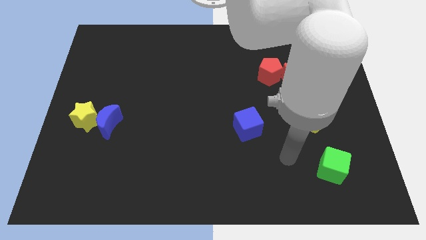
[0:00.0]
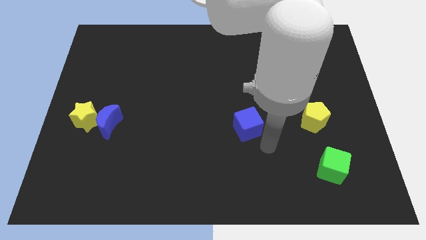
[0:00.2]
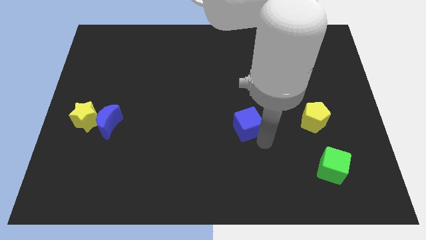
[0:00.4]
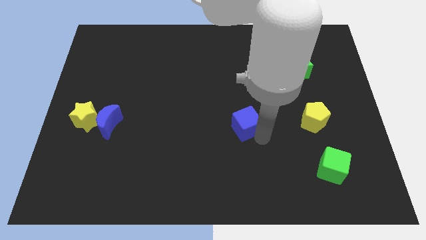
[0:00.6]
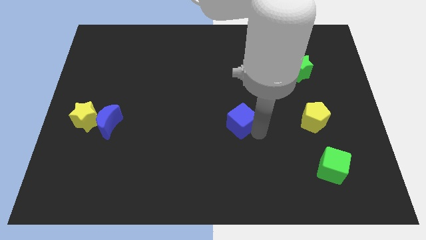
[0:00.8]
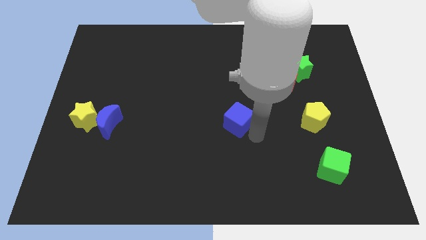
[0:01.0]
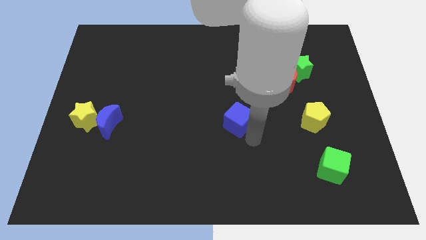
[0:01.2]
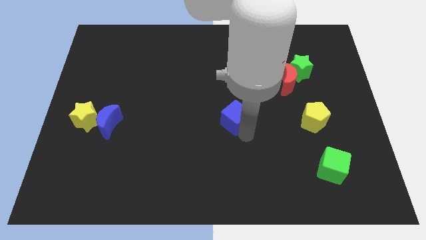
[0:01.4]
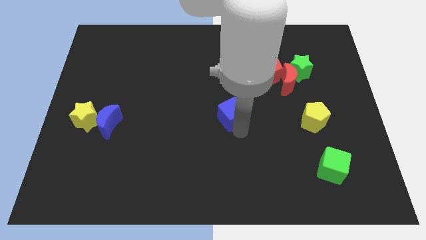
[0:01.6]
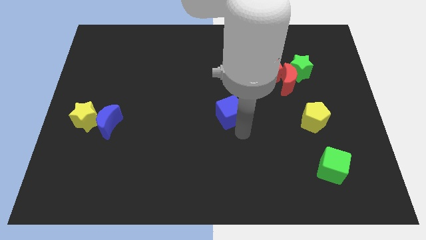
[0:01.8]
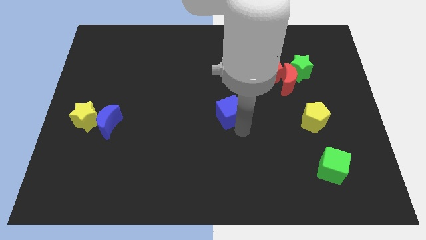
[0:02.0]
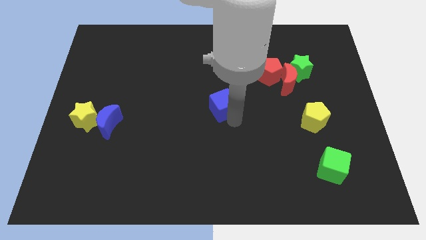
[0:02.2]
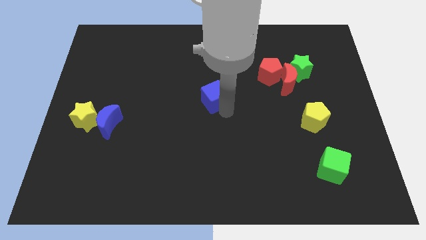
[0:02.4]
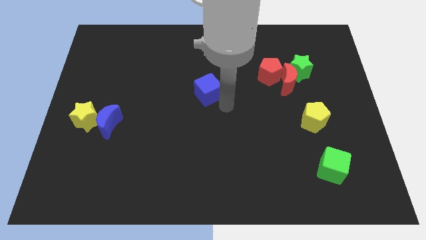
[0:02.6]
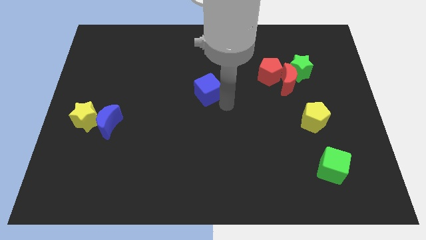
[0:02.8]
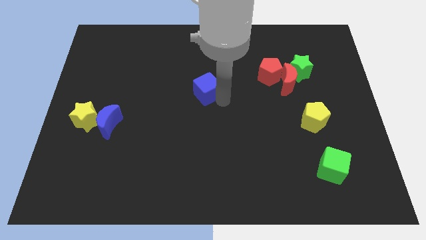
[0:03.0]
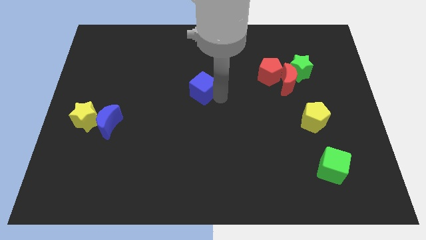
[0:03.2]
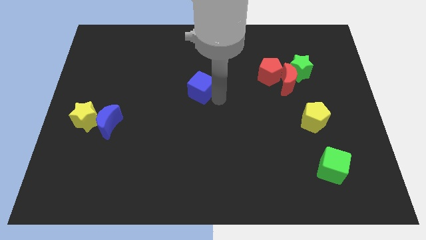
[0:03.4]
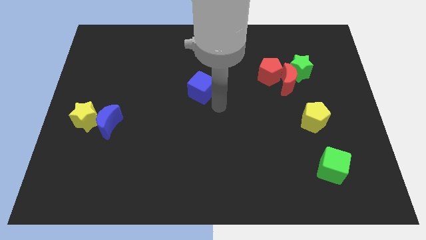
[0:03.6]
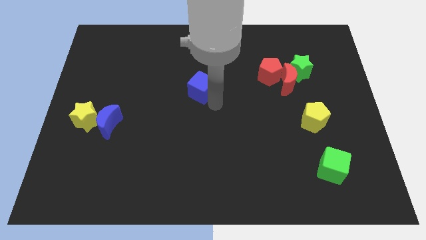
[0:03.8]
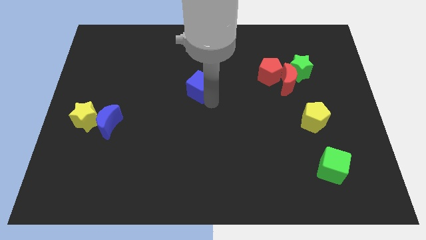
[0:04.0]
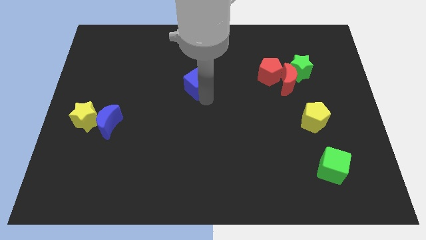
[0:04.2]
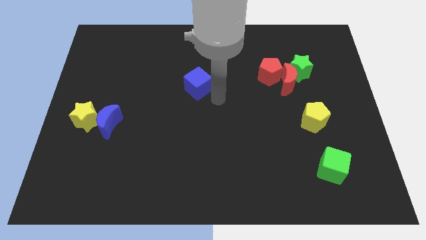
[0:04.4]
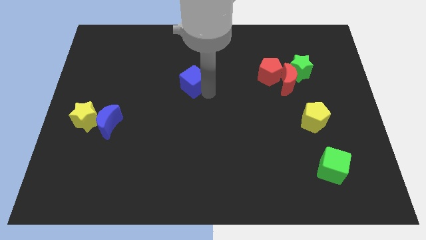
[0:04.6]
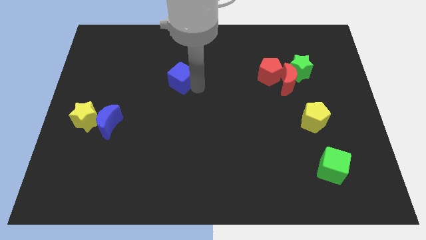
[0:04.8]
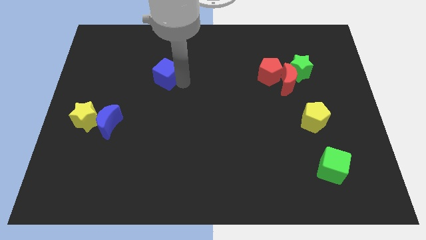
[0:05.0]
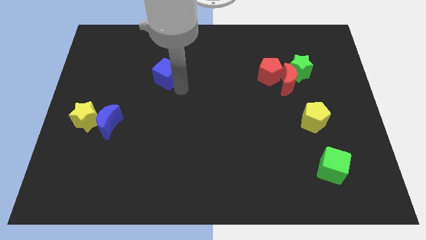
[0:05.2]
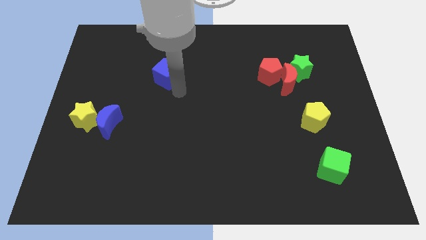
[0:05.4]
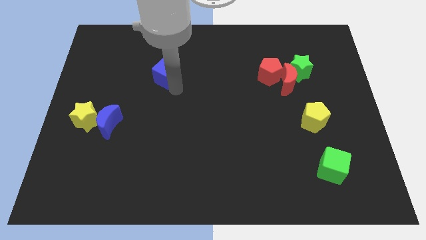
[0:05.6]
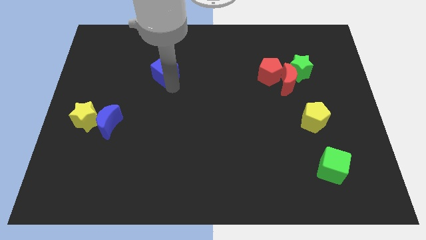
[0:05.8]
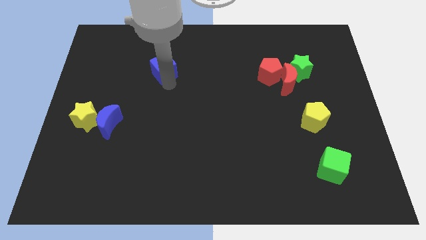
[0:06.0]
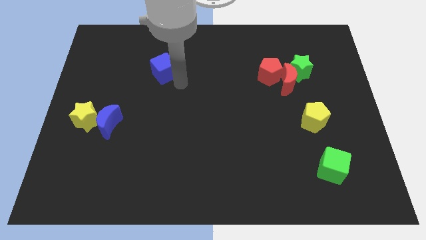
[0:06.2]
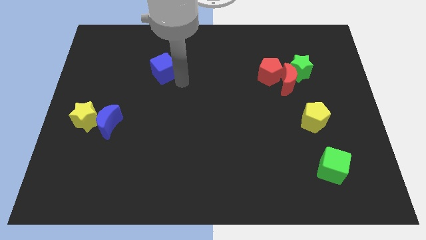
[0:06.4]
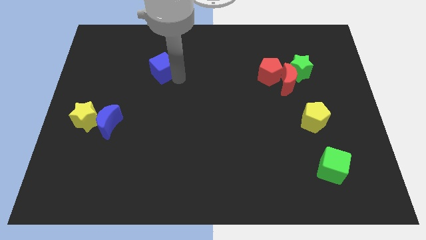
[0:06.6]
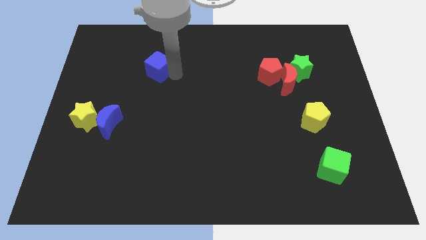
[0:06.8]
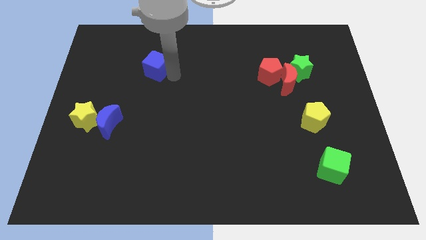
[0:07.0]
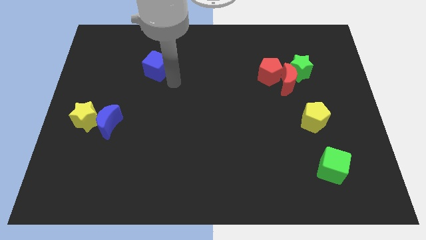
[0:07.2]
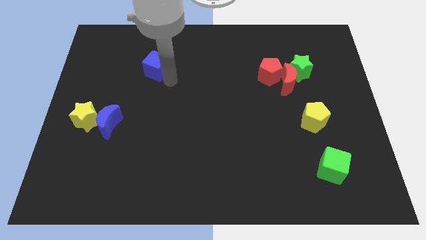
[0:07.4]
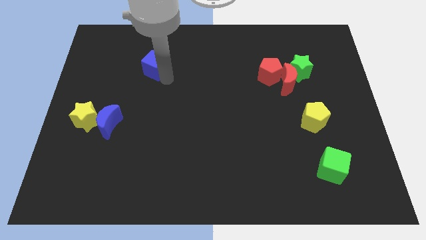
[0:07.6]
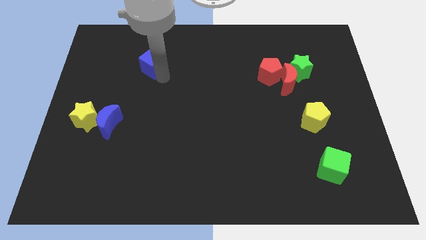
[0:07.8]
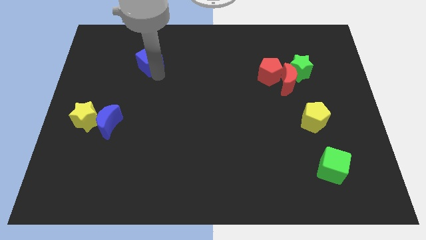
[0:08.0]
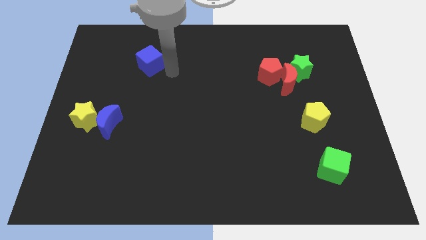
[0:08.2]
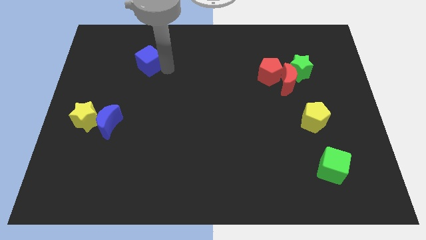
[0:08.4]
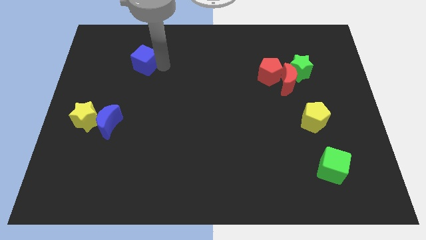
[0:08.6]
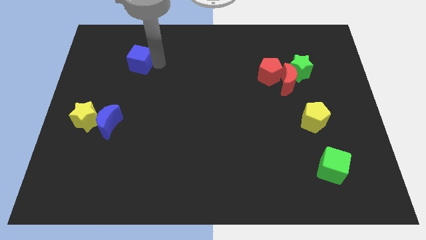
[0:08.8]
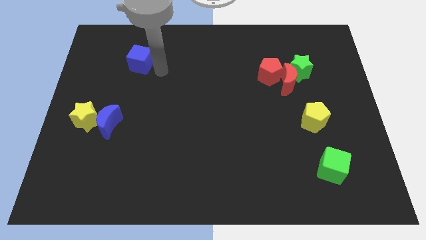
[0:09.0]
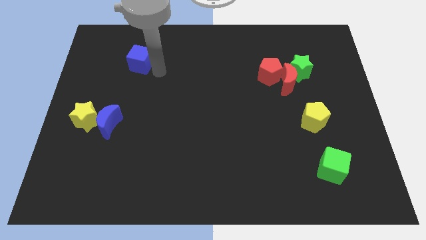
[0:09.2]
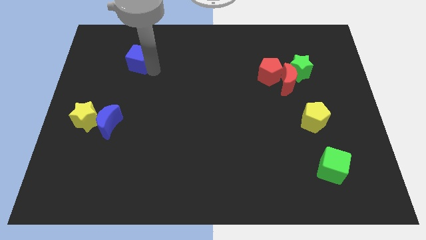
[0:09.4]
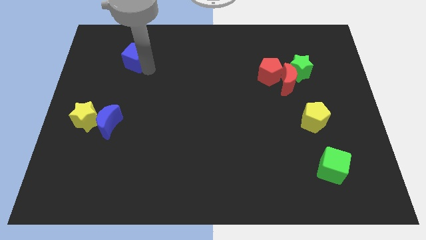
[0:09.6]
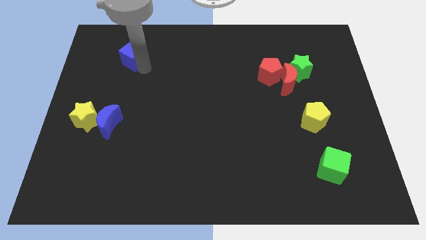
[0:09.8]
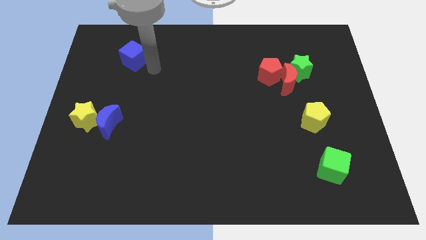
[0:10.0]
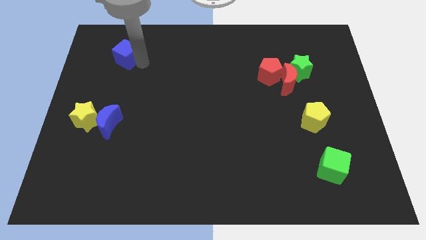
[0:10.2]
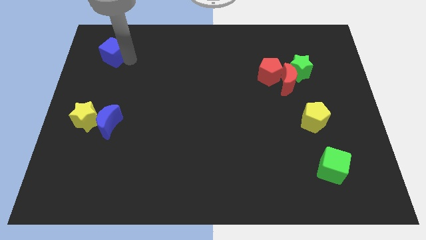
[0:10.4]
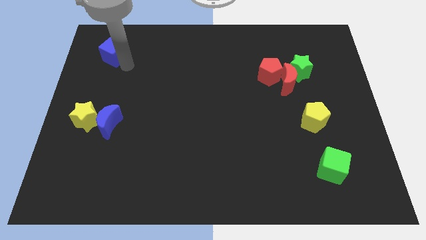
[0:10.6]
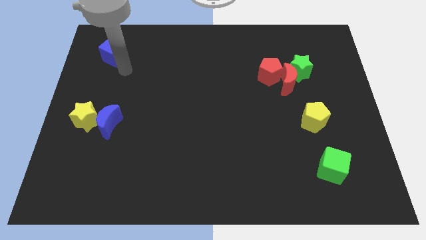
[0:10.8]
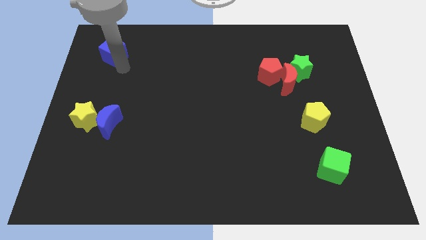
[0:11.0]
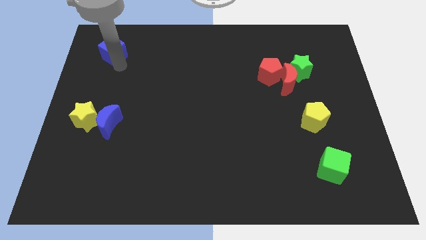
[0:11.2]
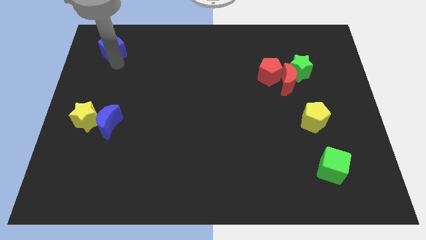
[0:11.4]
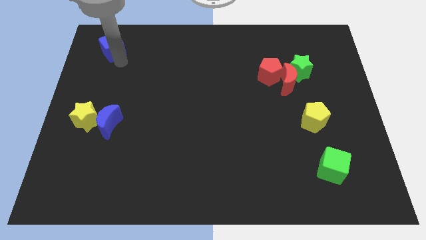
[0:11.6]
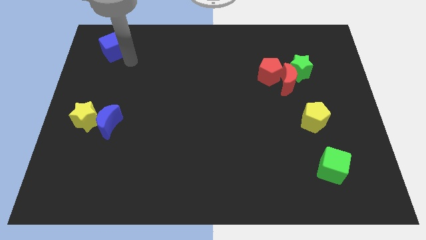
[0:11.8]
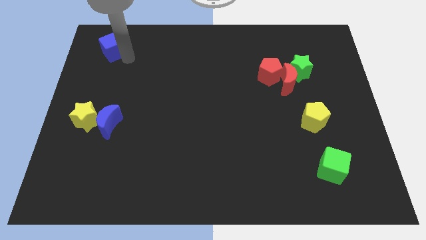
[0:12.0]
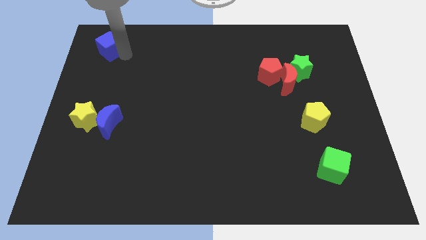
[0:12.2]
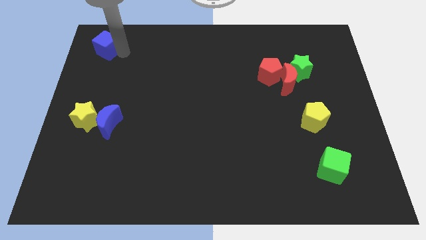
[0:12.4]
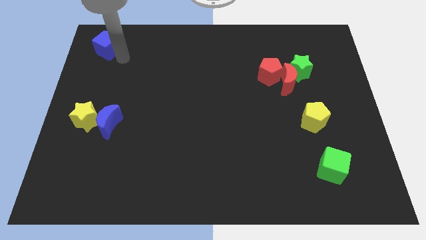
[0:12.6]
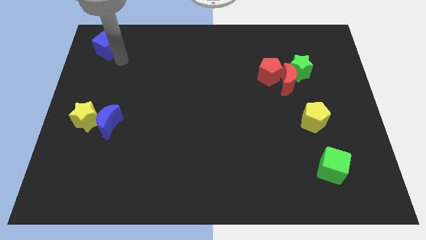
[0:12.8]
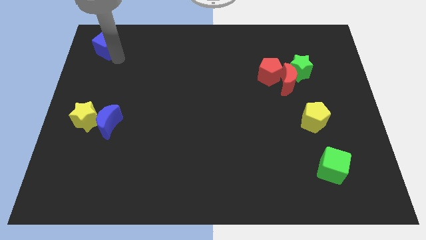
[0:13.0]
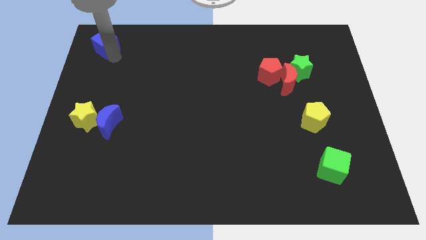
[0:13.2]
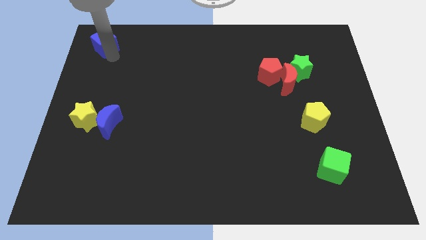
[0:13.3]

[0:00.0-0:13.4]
slide the blue cube to the top left of the board

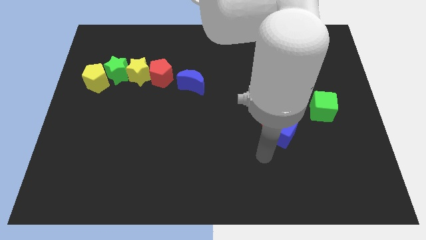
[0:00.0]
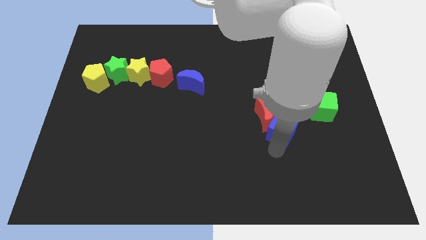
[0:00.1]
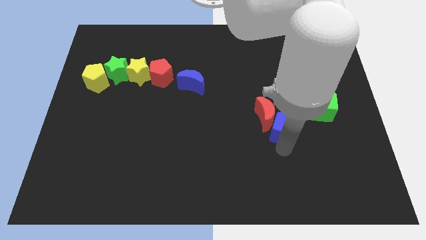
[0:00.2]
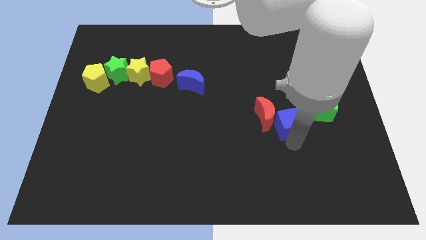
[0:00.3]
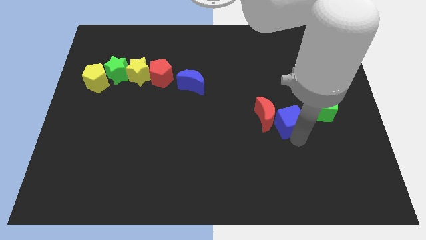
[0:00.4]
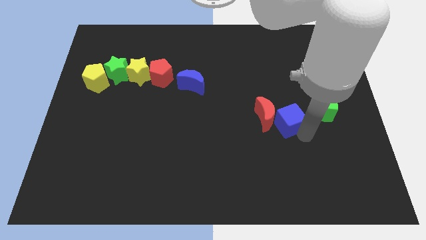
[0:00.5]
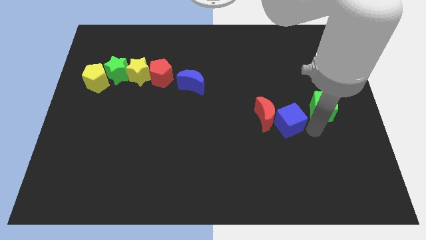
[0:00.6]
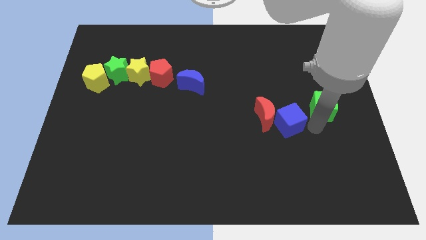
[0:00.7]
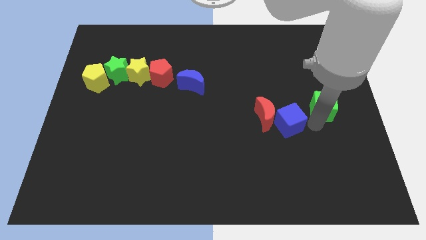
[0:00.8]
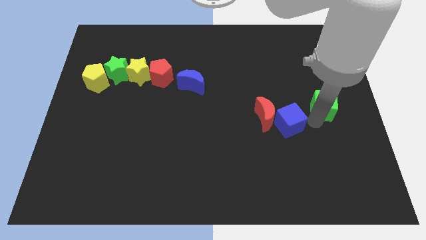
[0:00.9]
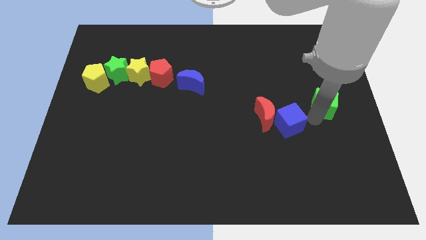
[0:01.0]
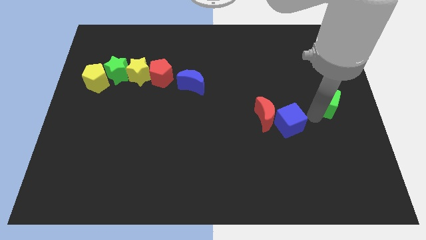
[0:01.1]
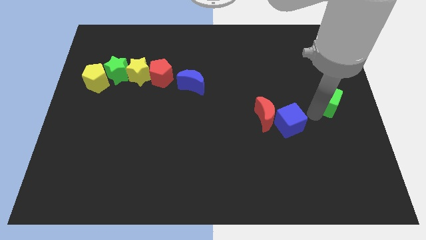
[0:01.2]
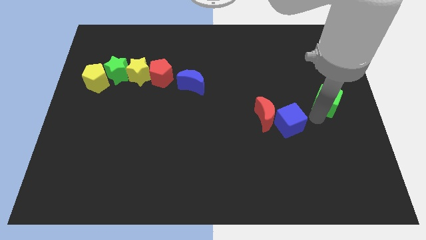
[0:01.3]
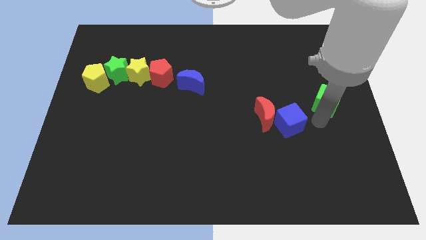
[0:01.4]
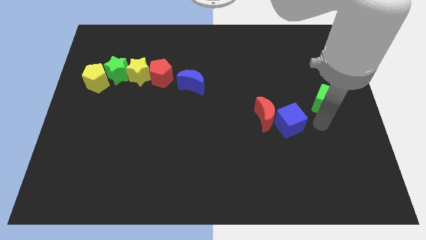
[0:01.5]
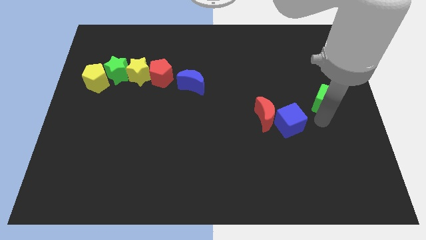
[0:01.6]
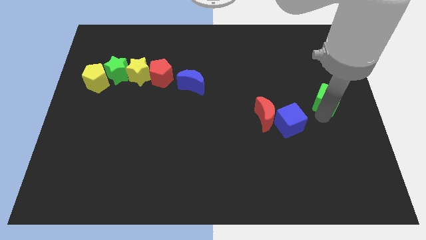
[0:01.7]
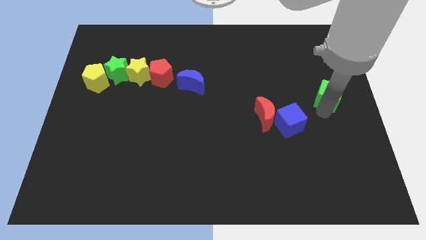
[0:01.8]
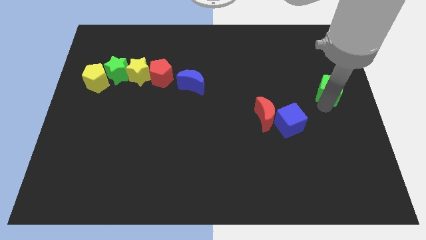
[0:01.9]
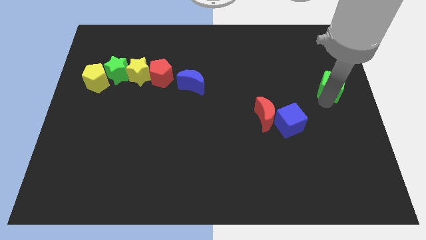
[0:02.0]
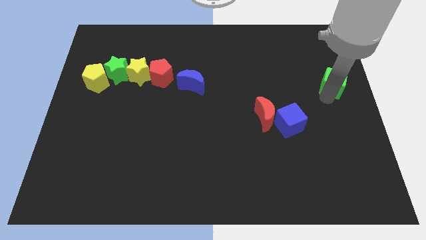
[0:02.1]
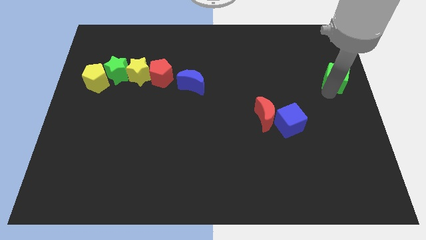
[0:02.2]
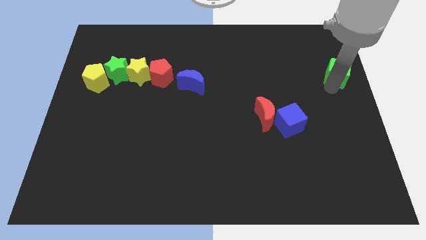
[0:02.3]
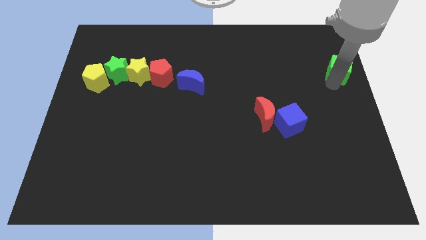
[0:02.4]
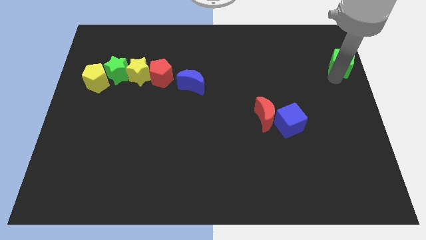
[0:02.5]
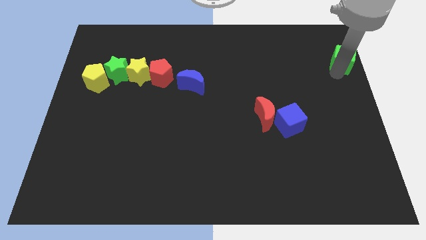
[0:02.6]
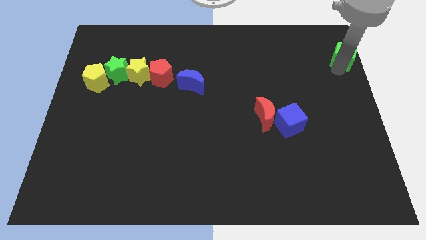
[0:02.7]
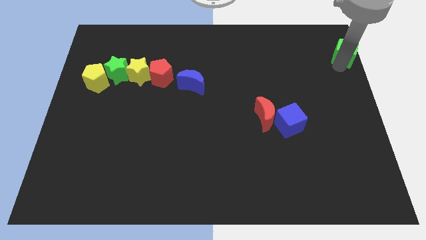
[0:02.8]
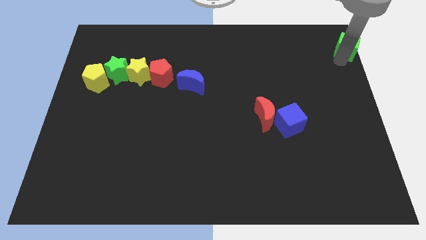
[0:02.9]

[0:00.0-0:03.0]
move the green cube to the upper right corner
